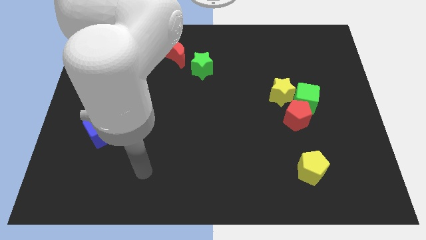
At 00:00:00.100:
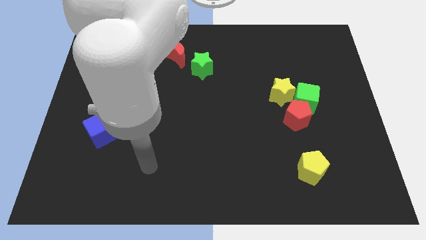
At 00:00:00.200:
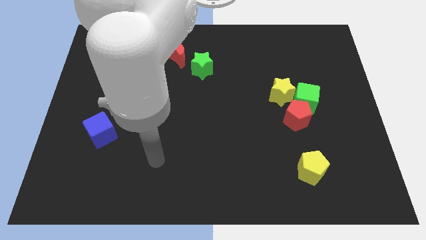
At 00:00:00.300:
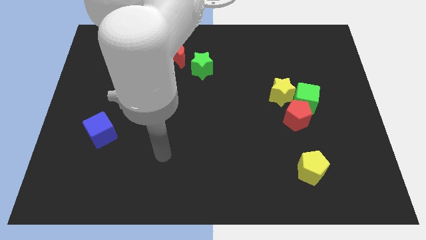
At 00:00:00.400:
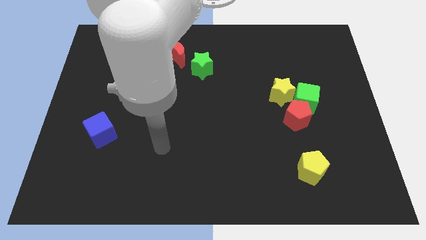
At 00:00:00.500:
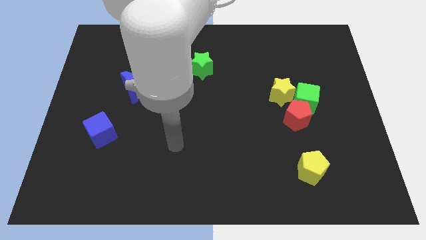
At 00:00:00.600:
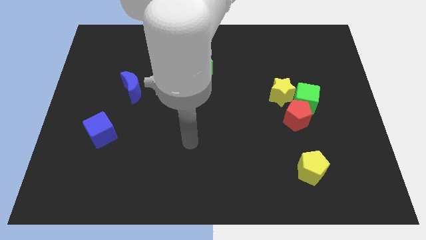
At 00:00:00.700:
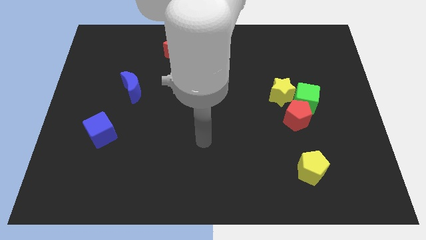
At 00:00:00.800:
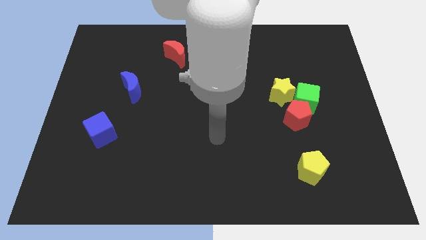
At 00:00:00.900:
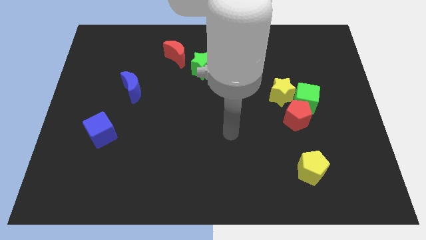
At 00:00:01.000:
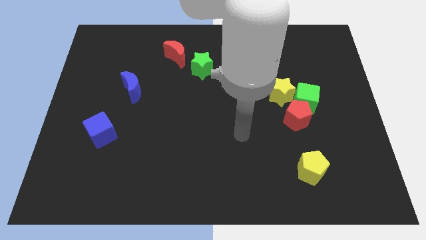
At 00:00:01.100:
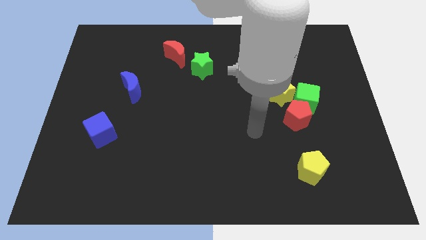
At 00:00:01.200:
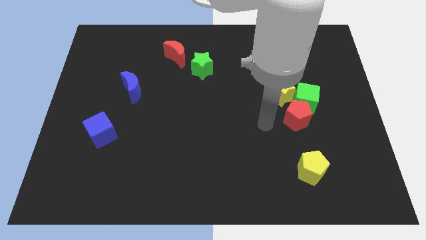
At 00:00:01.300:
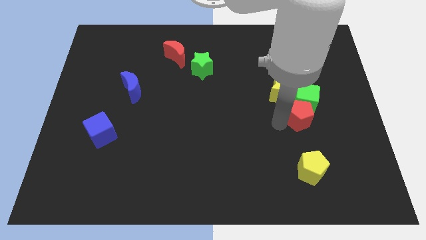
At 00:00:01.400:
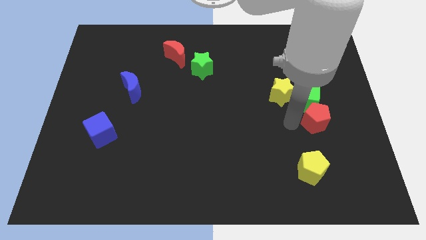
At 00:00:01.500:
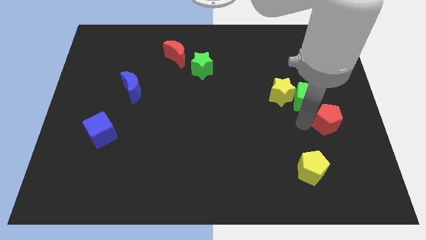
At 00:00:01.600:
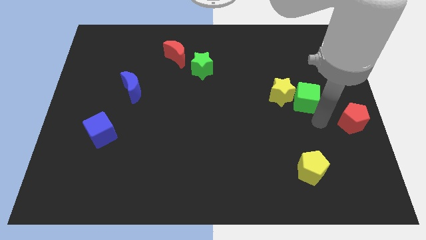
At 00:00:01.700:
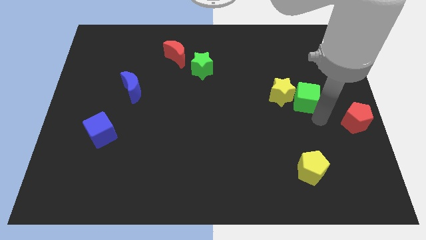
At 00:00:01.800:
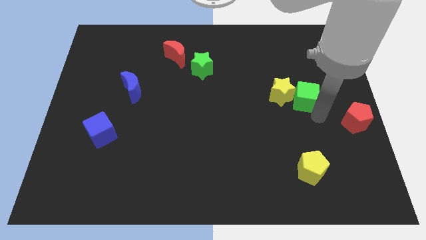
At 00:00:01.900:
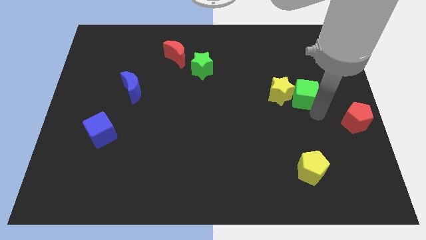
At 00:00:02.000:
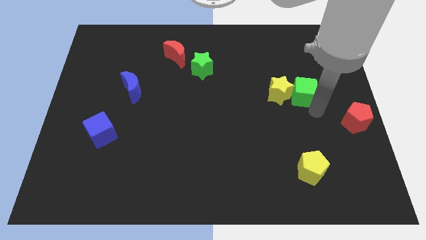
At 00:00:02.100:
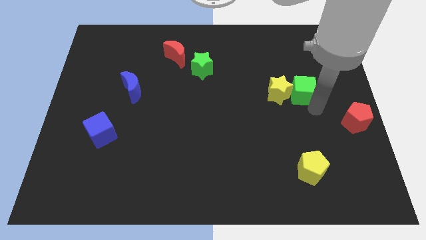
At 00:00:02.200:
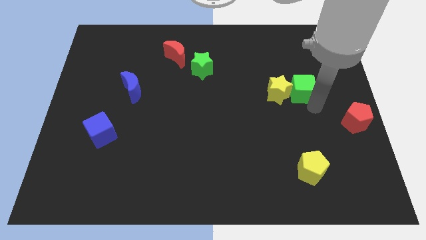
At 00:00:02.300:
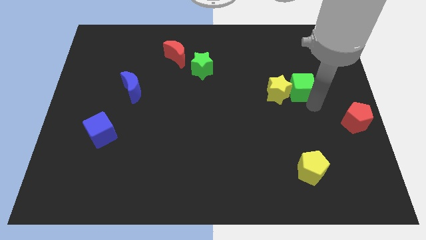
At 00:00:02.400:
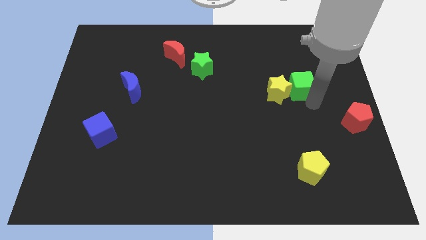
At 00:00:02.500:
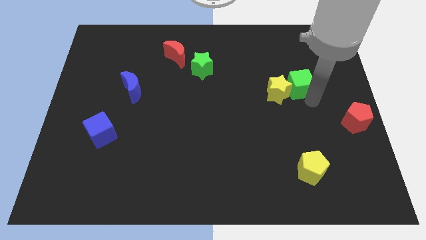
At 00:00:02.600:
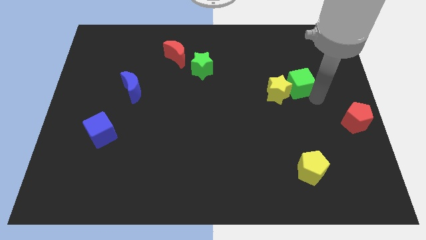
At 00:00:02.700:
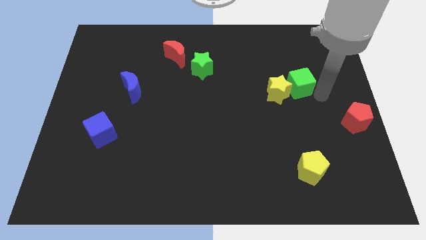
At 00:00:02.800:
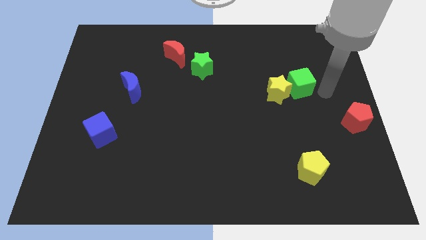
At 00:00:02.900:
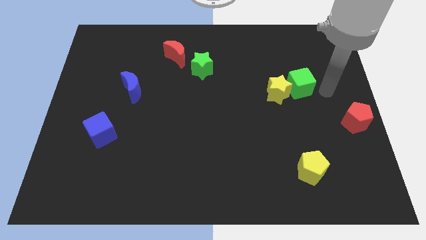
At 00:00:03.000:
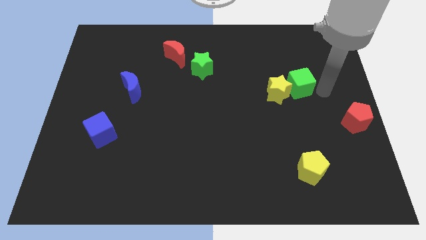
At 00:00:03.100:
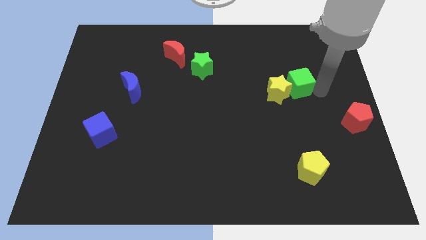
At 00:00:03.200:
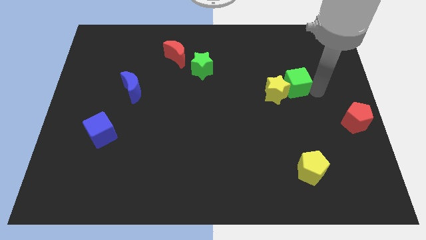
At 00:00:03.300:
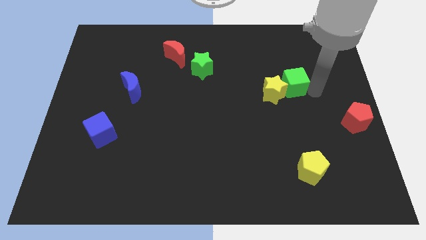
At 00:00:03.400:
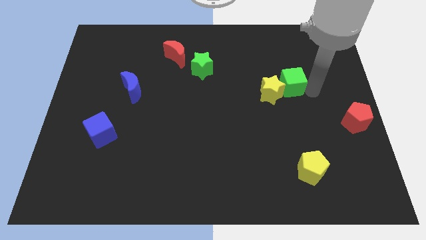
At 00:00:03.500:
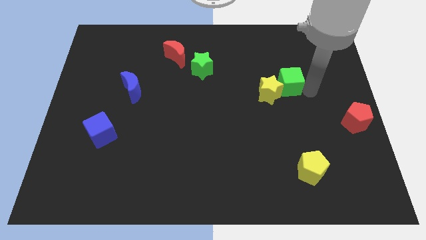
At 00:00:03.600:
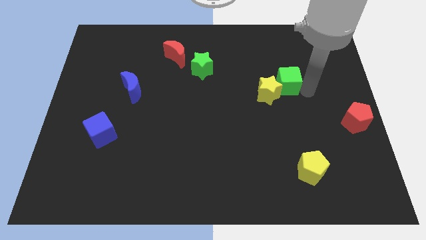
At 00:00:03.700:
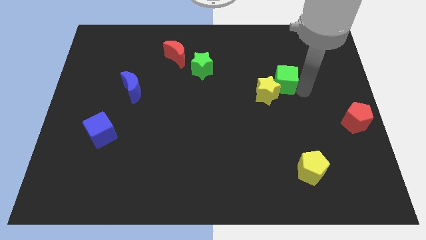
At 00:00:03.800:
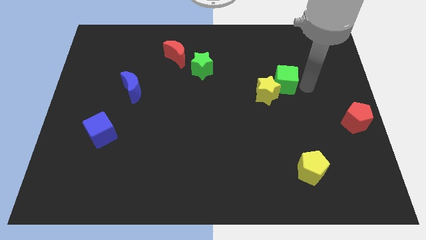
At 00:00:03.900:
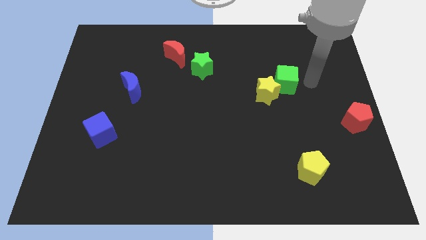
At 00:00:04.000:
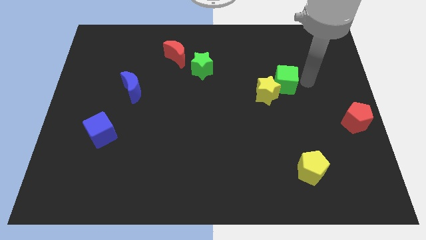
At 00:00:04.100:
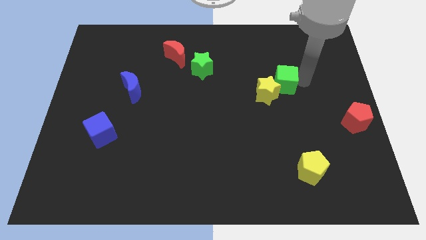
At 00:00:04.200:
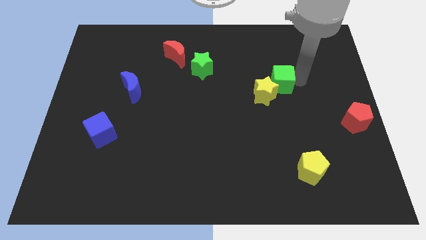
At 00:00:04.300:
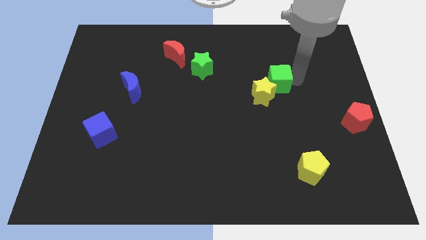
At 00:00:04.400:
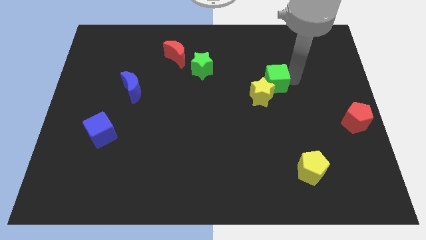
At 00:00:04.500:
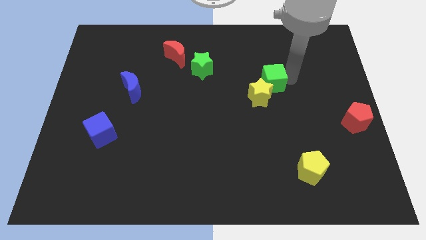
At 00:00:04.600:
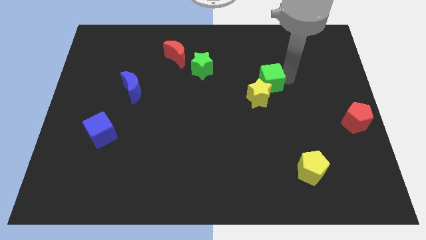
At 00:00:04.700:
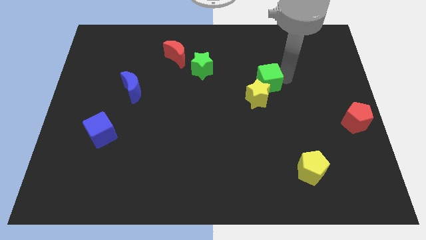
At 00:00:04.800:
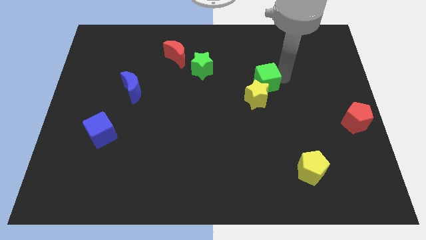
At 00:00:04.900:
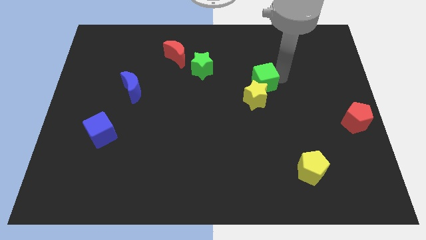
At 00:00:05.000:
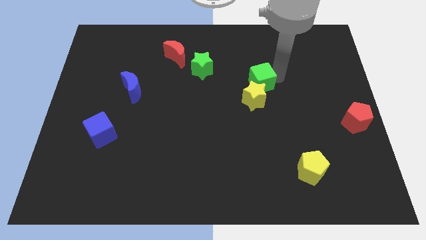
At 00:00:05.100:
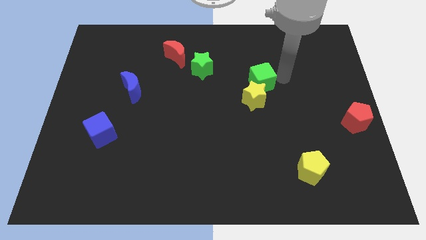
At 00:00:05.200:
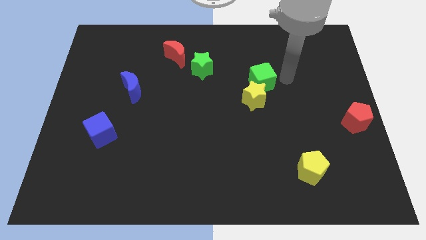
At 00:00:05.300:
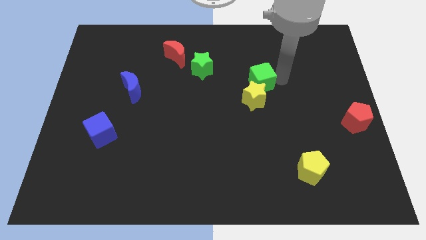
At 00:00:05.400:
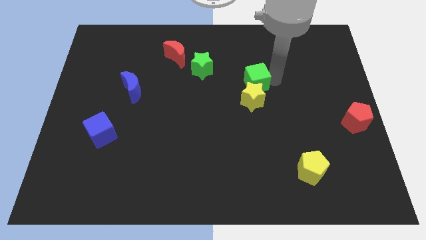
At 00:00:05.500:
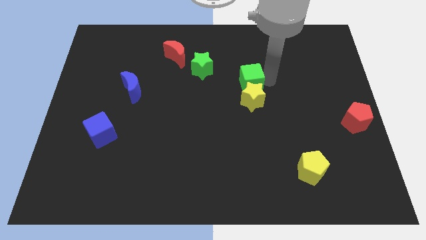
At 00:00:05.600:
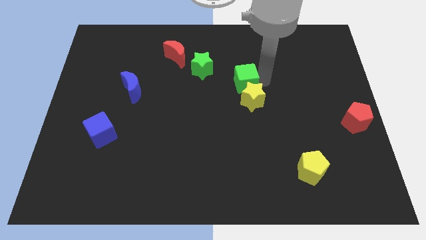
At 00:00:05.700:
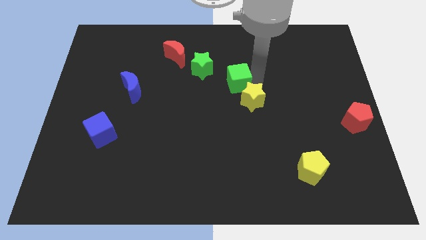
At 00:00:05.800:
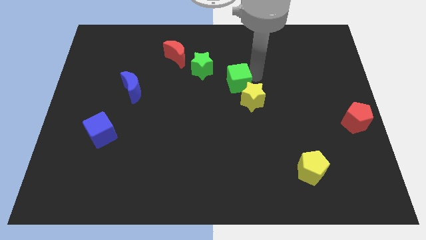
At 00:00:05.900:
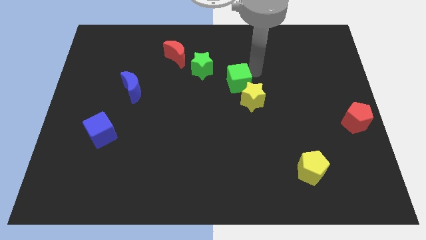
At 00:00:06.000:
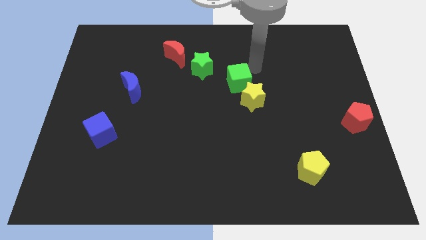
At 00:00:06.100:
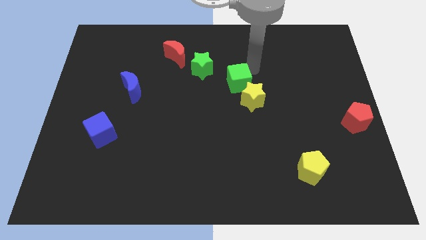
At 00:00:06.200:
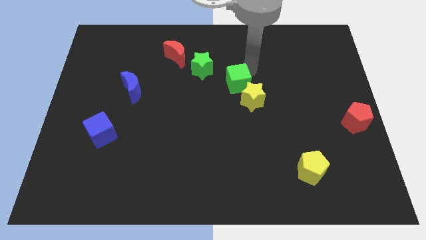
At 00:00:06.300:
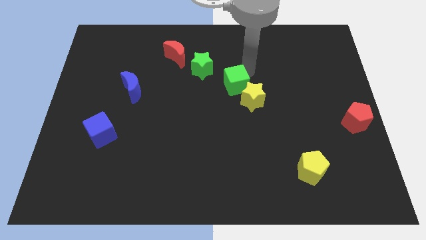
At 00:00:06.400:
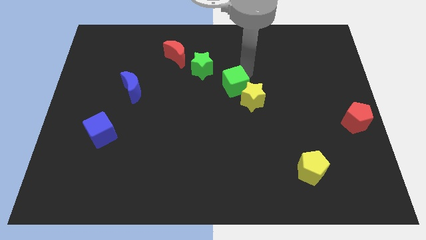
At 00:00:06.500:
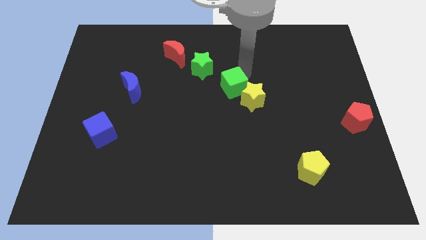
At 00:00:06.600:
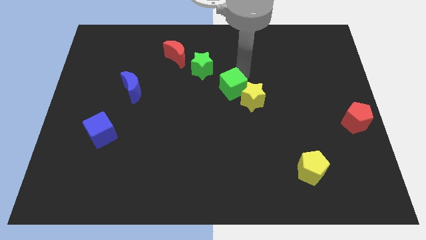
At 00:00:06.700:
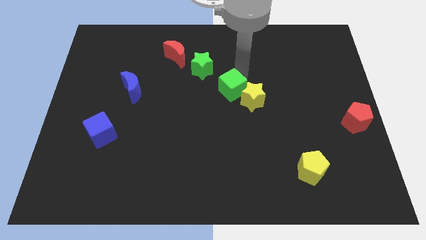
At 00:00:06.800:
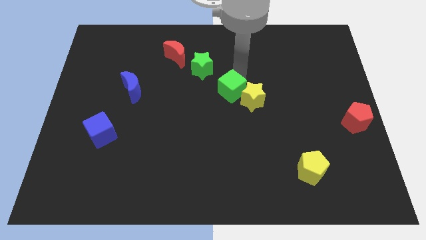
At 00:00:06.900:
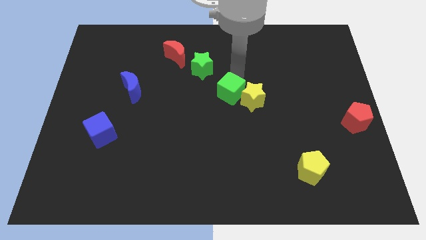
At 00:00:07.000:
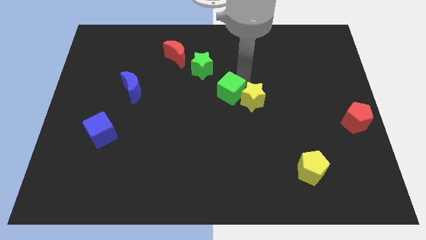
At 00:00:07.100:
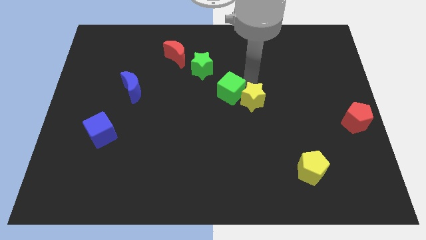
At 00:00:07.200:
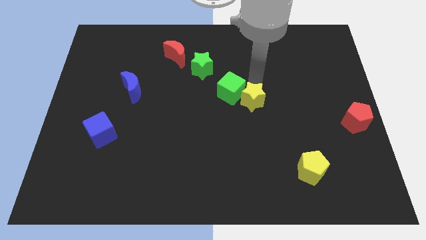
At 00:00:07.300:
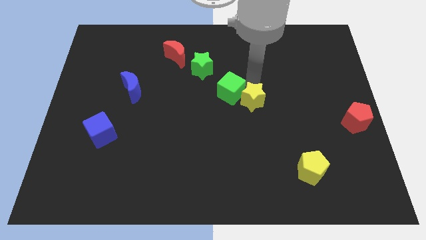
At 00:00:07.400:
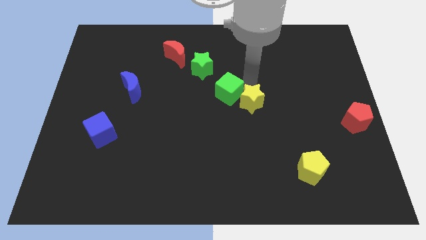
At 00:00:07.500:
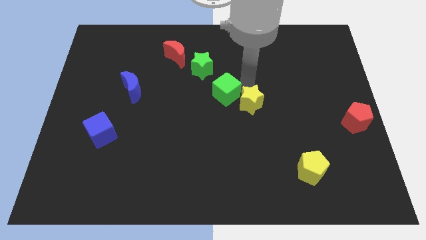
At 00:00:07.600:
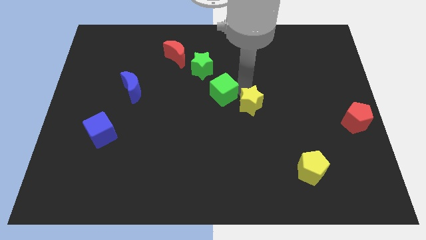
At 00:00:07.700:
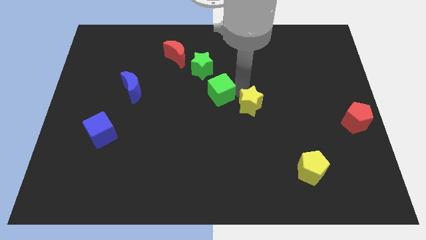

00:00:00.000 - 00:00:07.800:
put the green cube to the bottom of the green star
